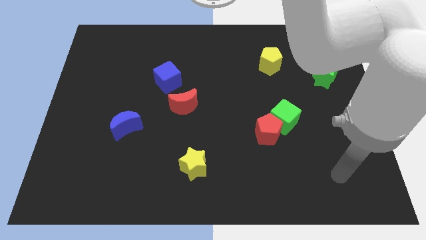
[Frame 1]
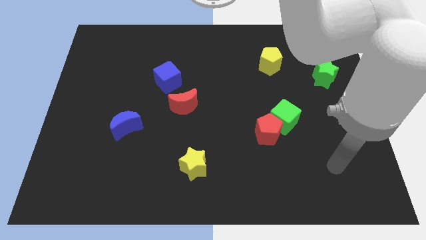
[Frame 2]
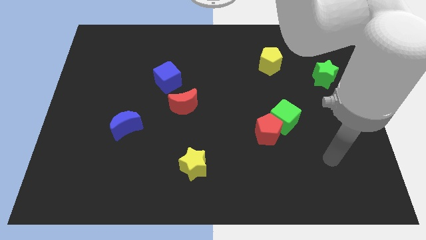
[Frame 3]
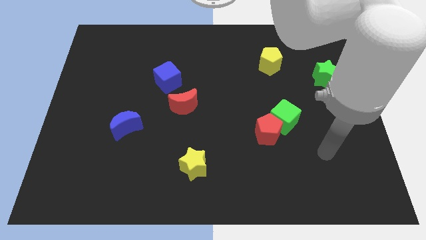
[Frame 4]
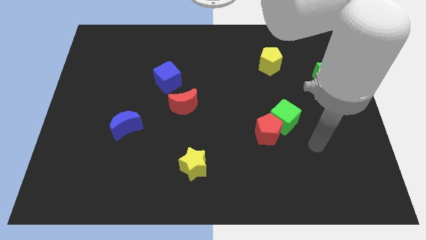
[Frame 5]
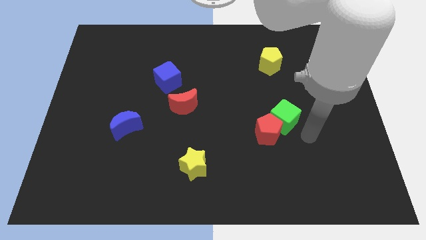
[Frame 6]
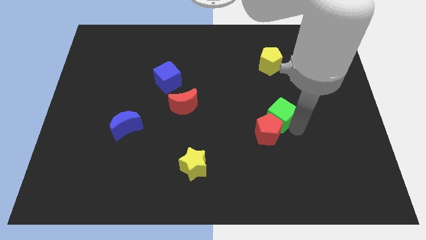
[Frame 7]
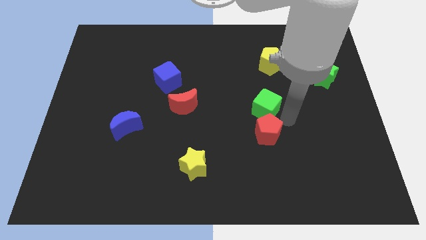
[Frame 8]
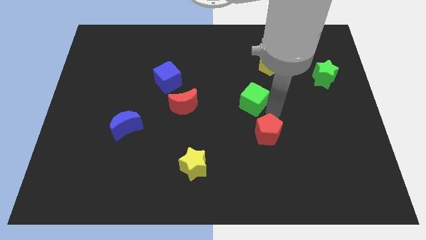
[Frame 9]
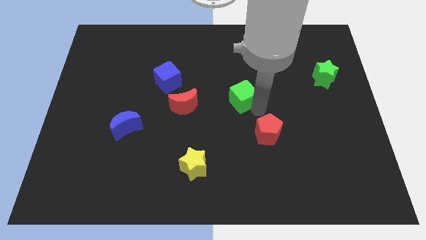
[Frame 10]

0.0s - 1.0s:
separate the red pentagon from the green cube

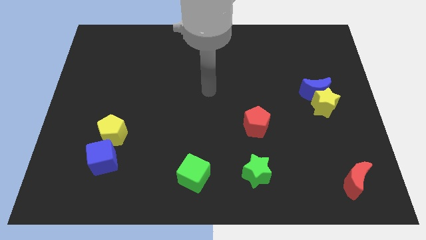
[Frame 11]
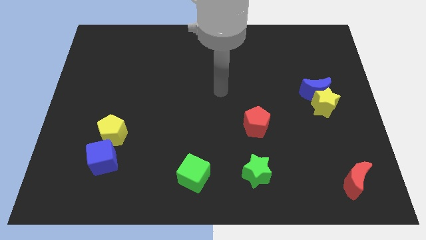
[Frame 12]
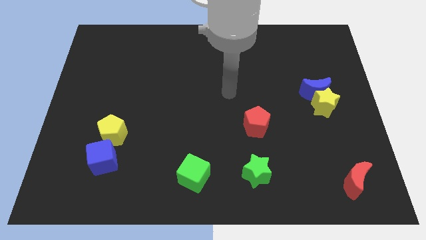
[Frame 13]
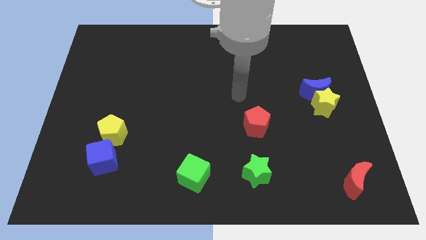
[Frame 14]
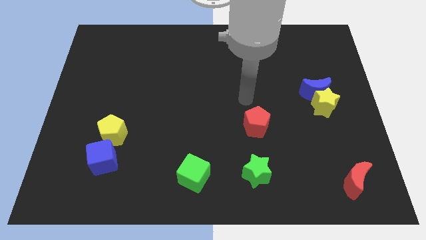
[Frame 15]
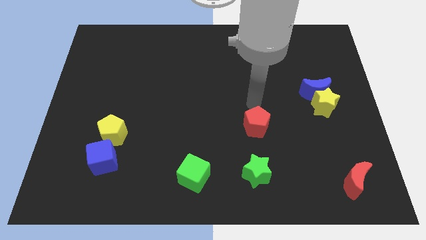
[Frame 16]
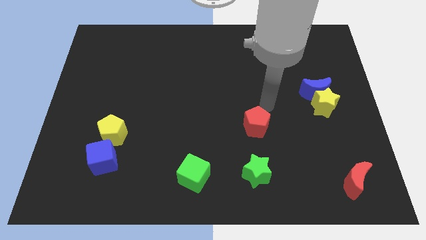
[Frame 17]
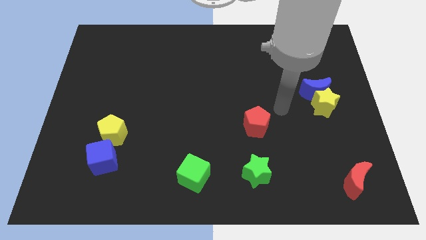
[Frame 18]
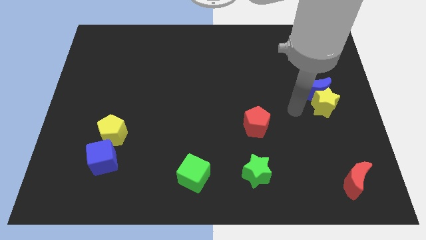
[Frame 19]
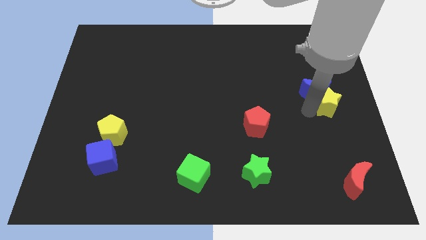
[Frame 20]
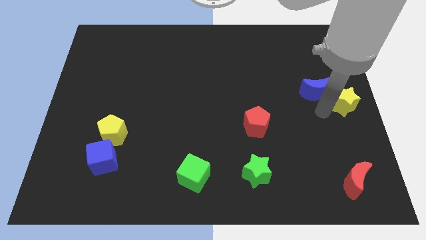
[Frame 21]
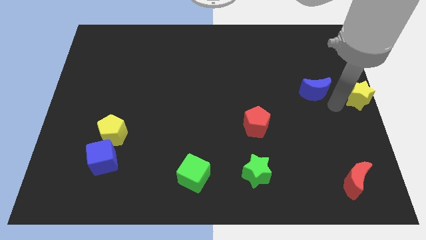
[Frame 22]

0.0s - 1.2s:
pull the blue moon apart from the yellow star

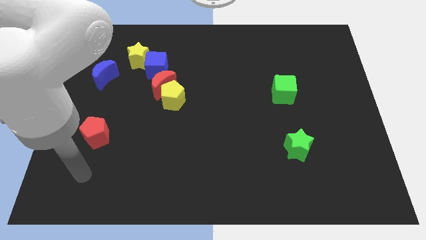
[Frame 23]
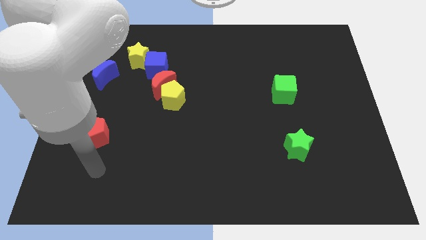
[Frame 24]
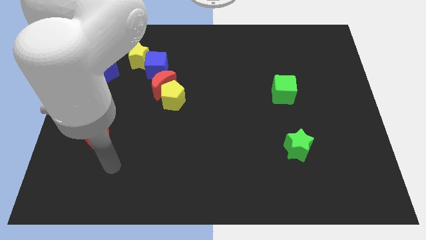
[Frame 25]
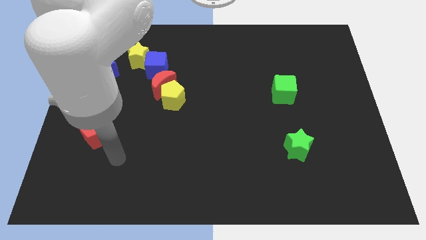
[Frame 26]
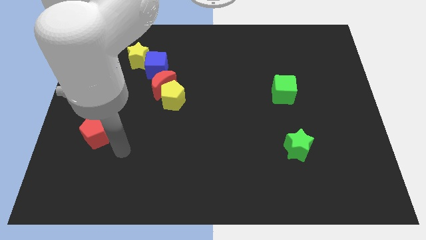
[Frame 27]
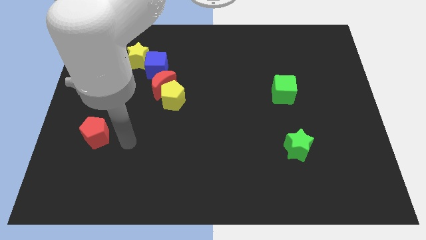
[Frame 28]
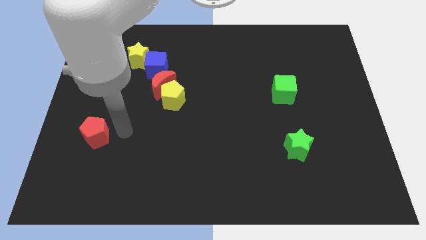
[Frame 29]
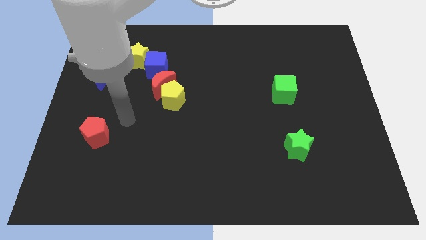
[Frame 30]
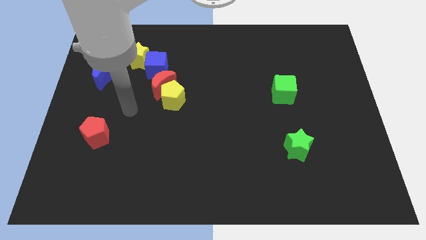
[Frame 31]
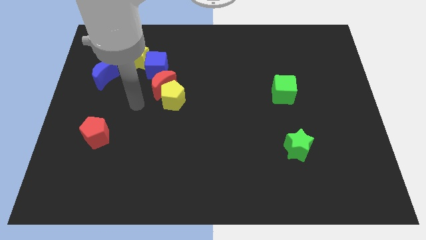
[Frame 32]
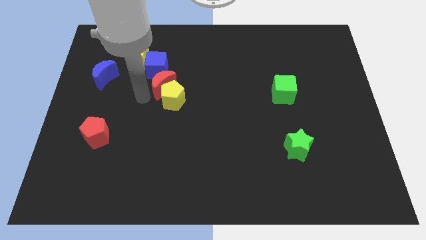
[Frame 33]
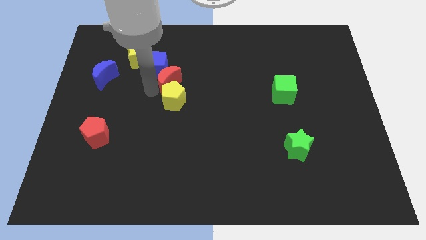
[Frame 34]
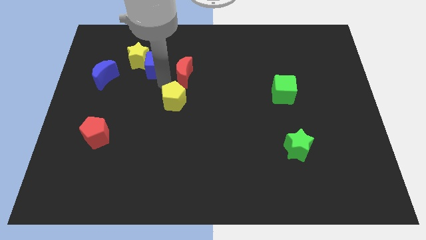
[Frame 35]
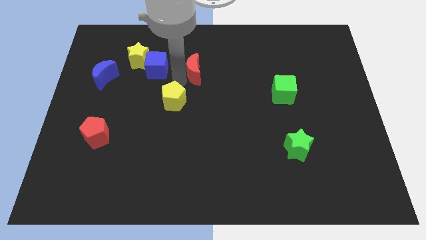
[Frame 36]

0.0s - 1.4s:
move the yellow pentagon away from the red moon

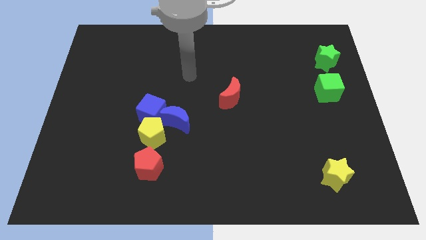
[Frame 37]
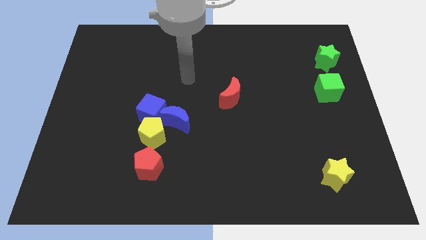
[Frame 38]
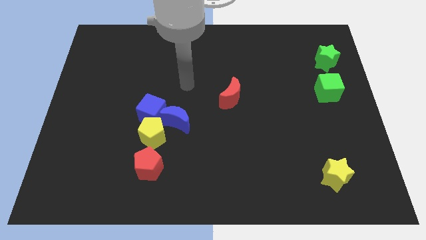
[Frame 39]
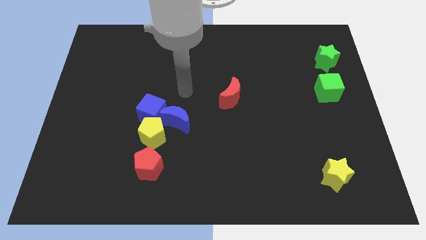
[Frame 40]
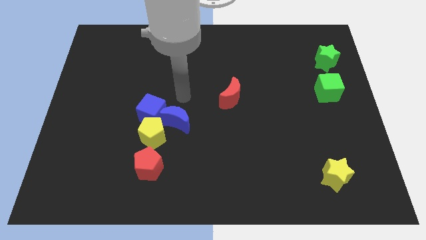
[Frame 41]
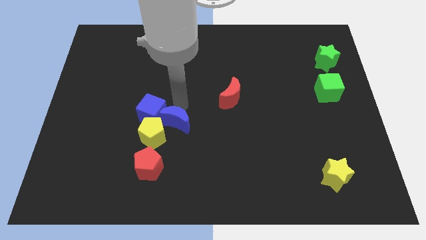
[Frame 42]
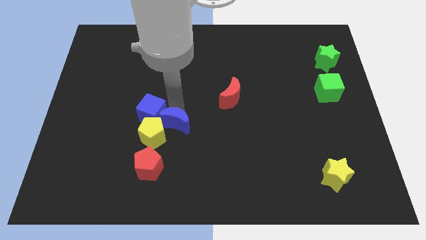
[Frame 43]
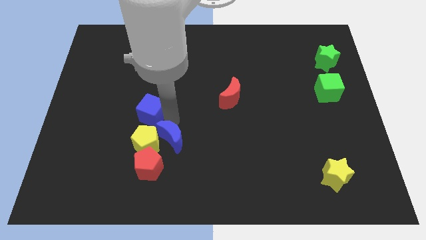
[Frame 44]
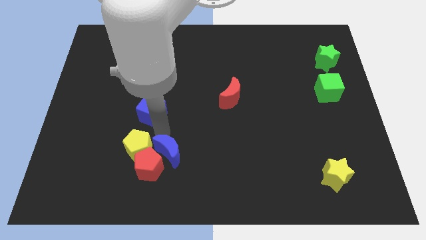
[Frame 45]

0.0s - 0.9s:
pull the blue cube apart from the yellow pentagon and blue moon

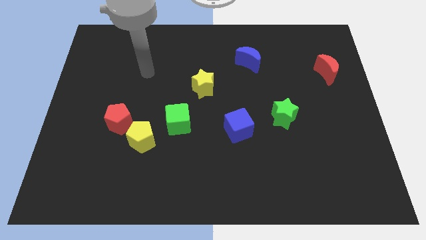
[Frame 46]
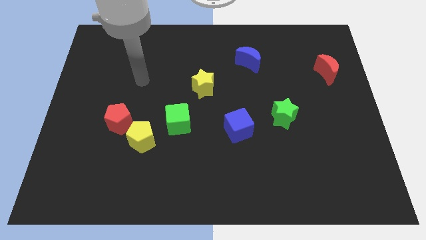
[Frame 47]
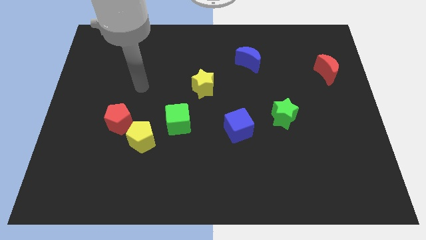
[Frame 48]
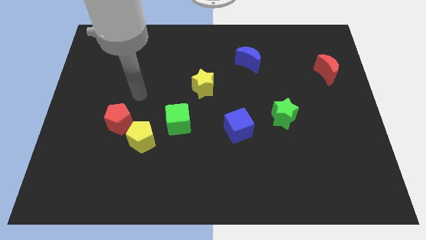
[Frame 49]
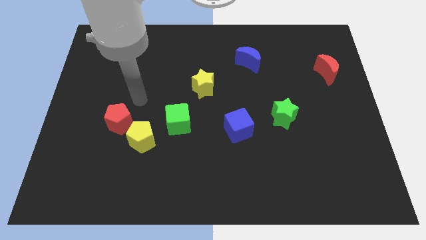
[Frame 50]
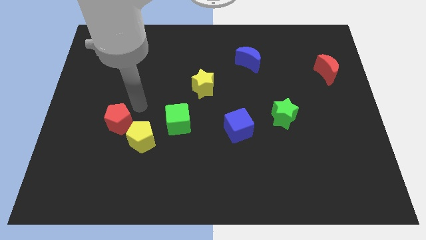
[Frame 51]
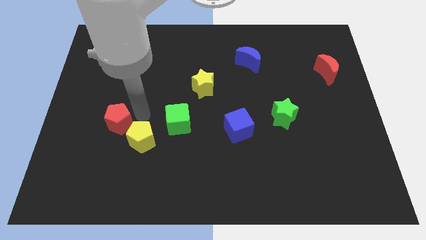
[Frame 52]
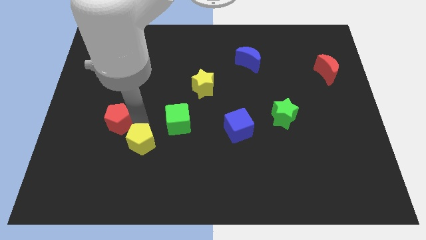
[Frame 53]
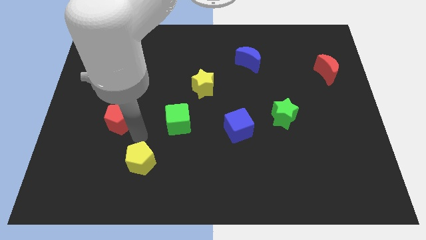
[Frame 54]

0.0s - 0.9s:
separate the red pentagon from the yellow pentagon

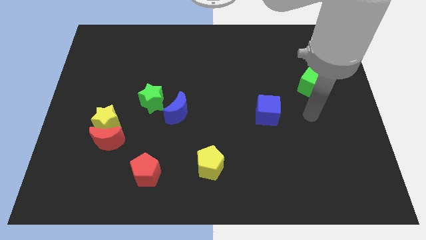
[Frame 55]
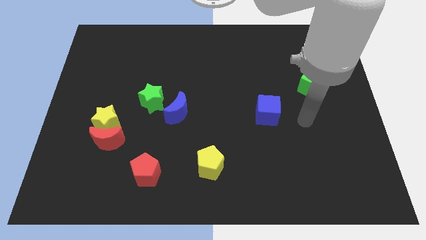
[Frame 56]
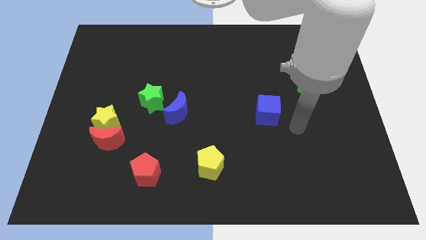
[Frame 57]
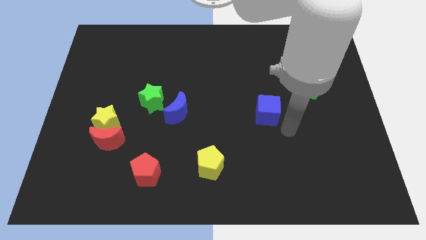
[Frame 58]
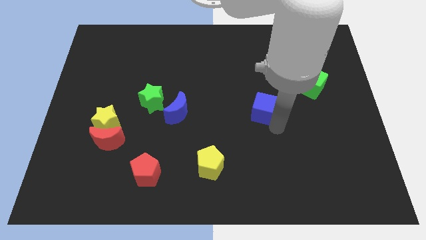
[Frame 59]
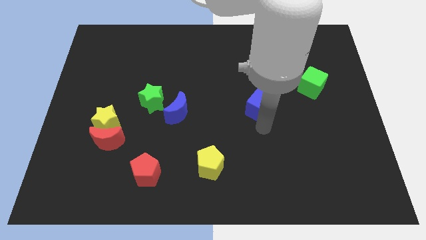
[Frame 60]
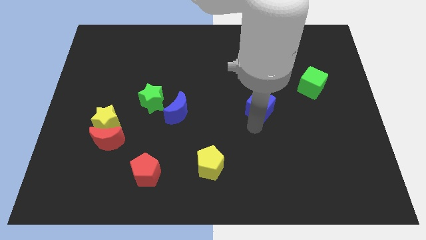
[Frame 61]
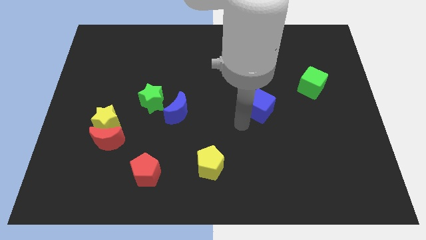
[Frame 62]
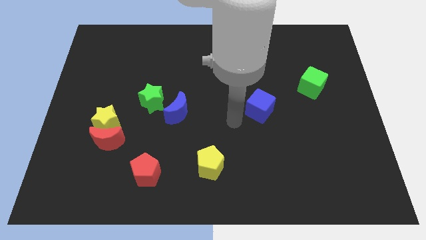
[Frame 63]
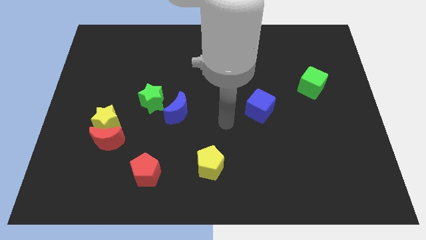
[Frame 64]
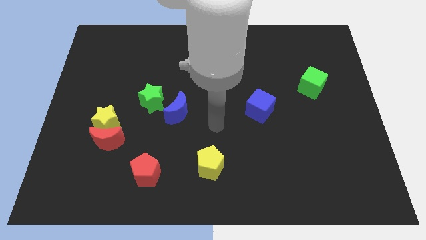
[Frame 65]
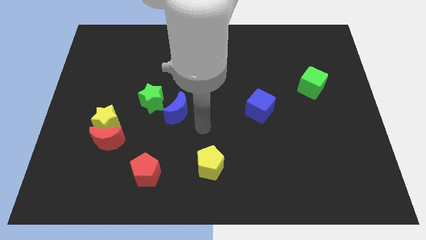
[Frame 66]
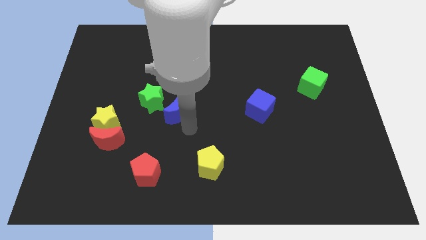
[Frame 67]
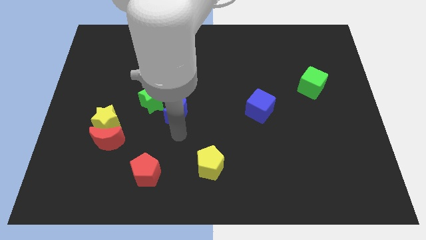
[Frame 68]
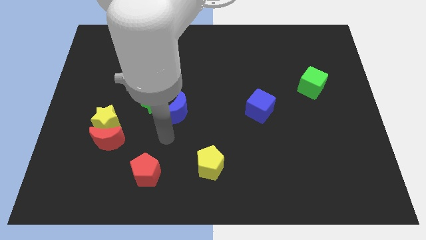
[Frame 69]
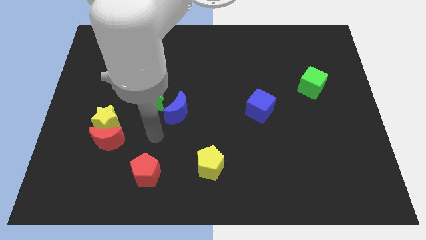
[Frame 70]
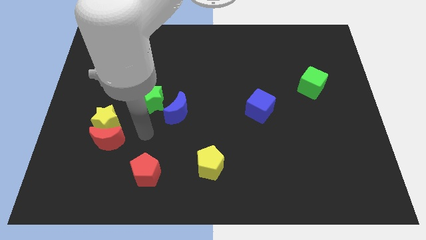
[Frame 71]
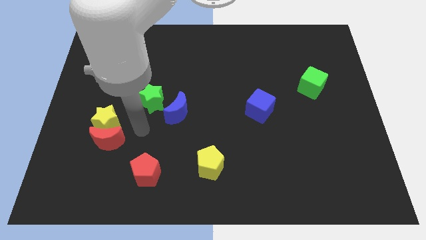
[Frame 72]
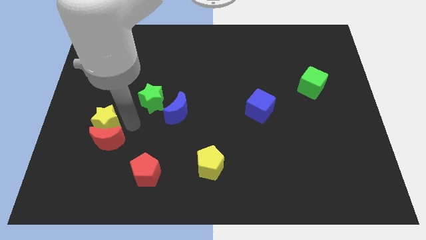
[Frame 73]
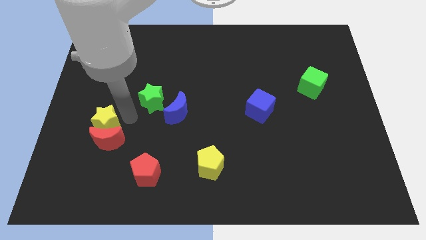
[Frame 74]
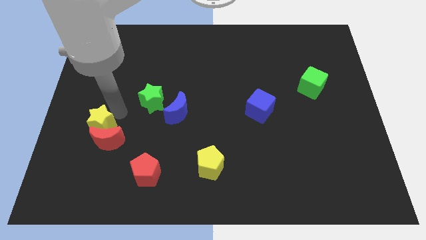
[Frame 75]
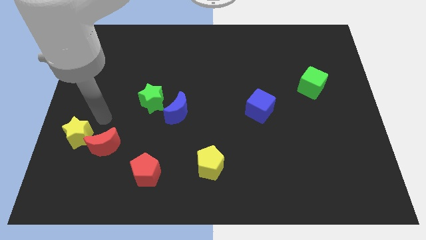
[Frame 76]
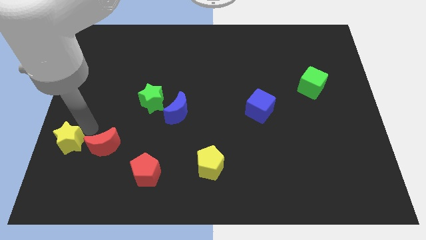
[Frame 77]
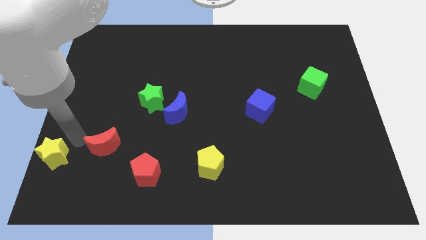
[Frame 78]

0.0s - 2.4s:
separate the red moon from the yellow star

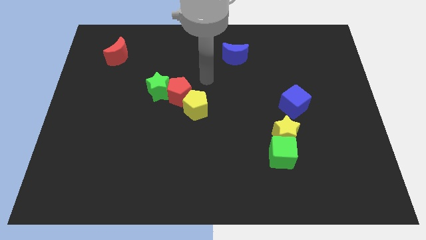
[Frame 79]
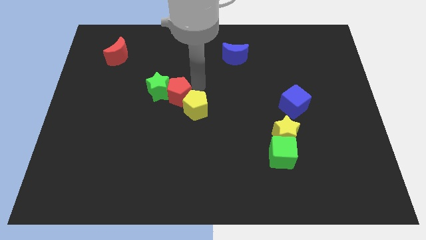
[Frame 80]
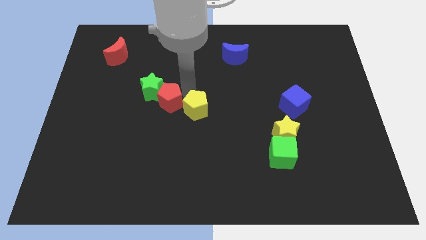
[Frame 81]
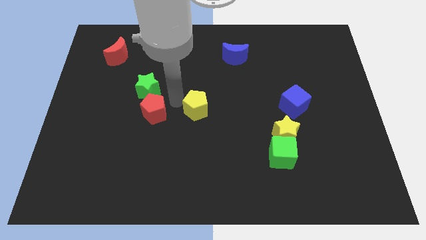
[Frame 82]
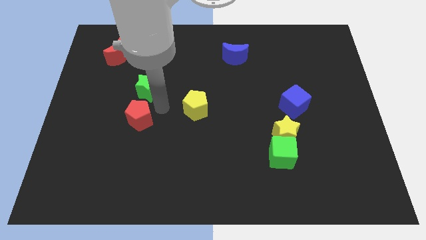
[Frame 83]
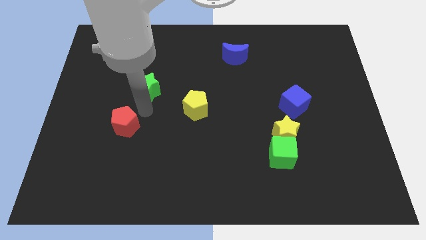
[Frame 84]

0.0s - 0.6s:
separate the green star from the red pentagon

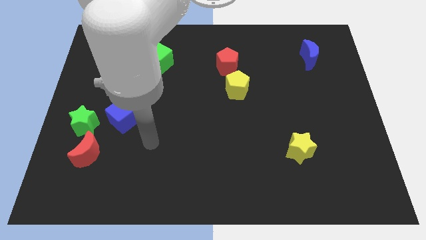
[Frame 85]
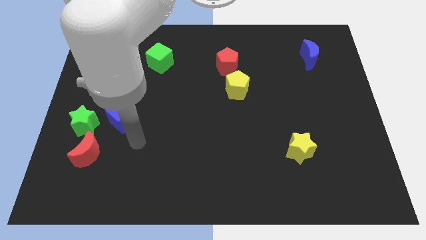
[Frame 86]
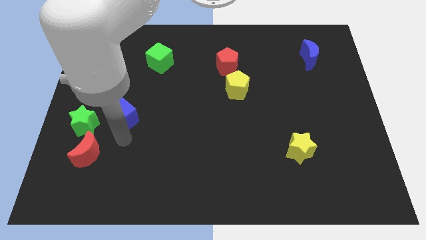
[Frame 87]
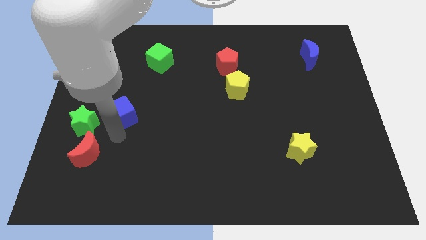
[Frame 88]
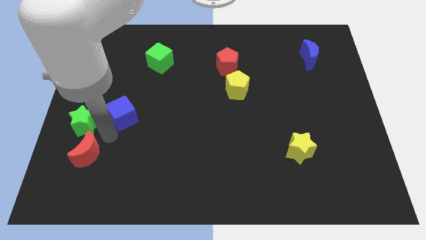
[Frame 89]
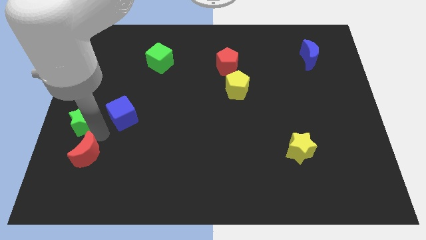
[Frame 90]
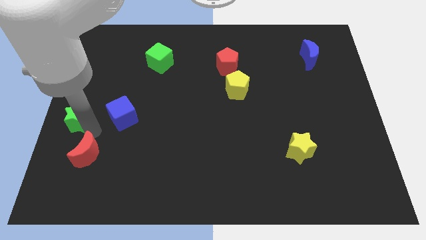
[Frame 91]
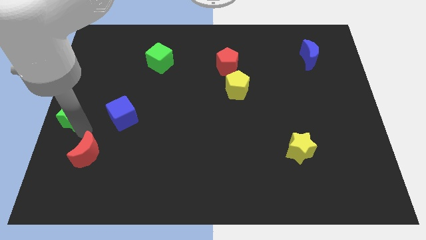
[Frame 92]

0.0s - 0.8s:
separate the red moon from the green star
